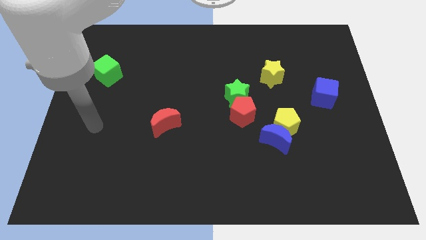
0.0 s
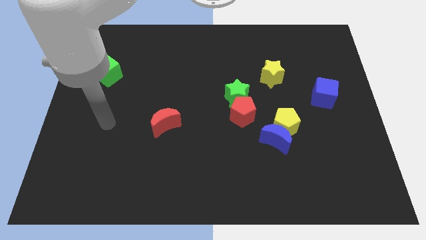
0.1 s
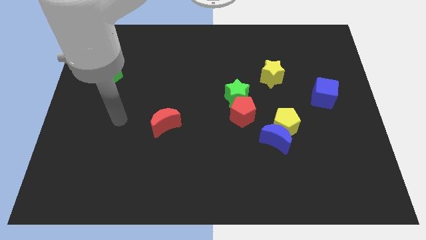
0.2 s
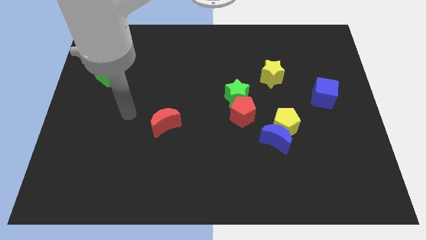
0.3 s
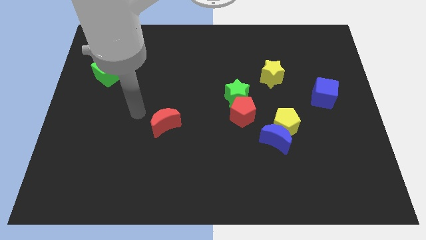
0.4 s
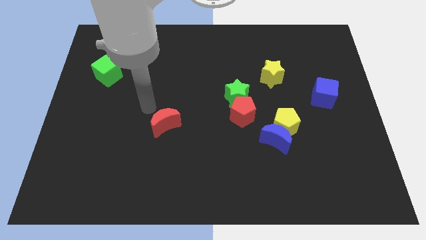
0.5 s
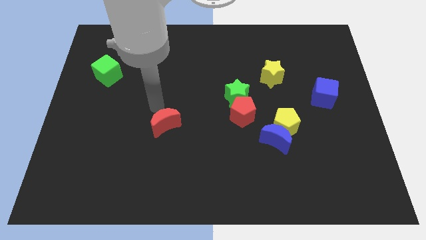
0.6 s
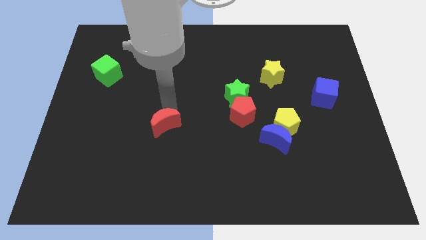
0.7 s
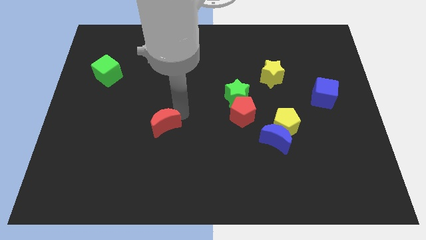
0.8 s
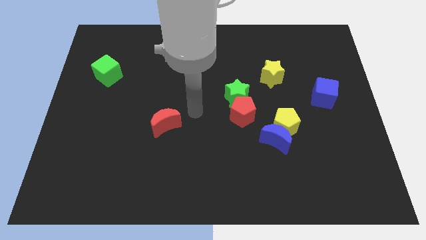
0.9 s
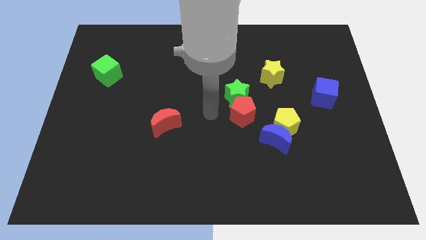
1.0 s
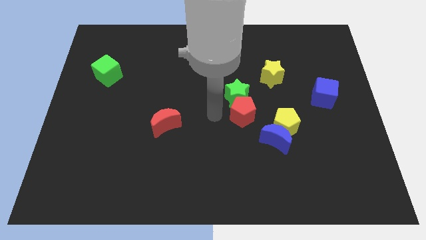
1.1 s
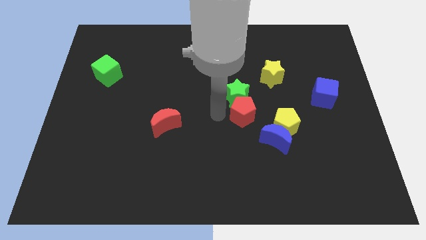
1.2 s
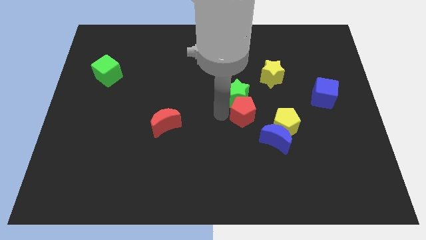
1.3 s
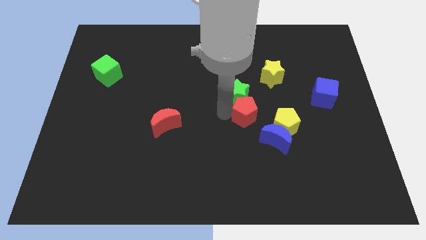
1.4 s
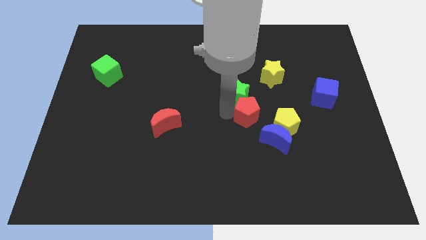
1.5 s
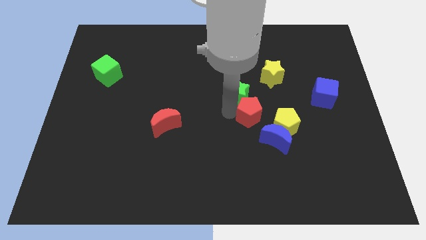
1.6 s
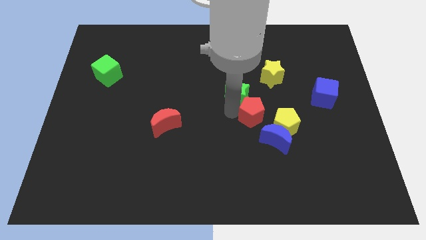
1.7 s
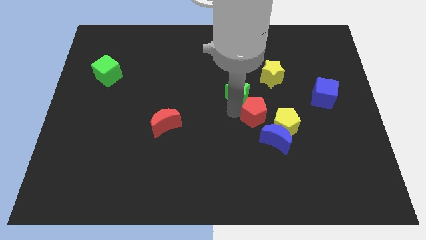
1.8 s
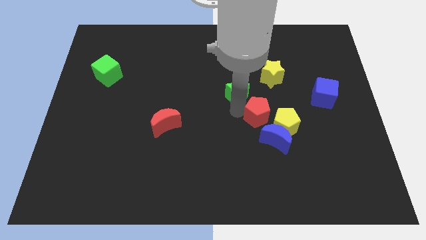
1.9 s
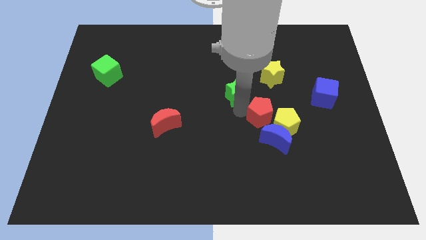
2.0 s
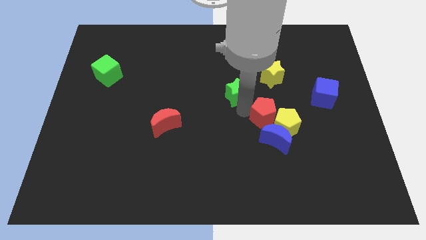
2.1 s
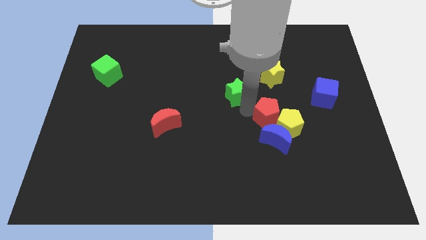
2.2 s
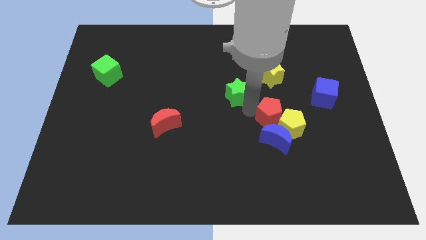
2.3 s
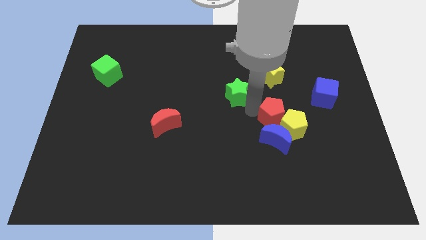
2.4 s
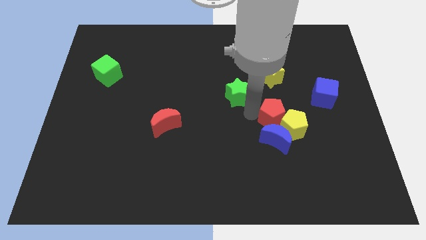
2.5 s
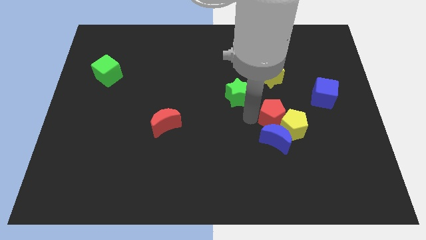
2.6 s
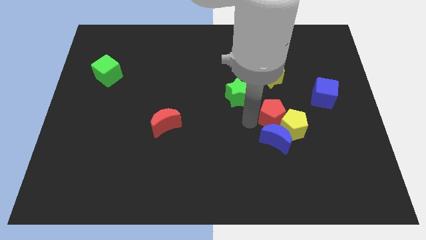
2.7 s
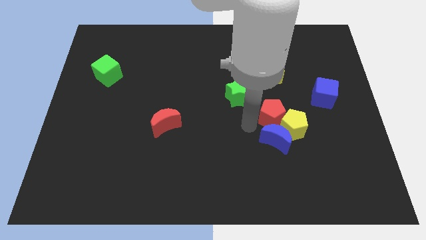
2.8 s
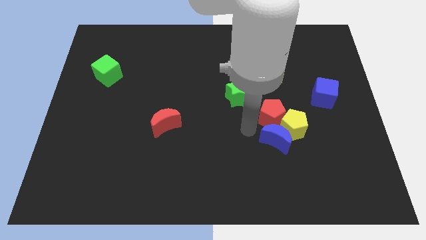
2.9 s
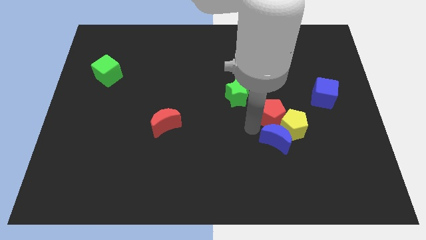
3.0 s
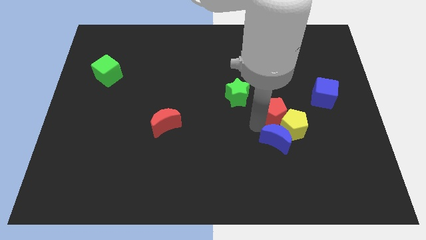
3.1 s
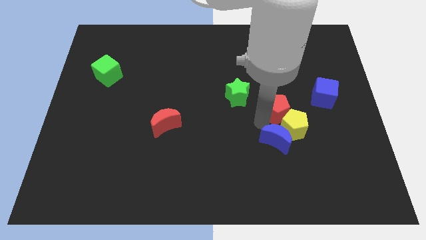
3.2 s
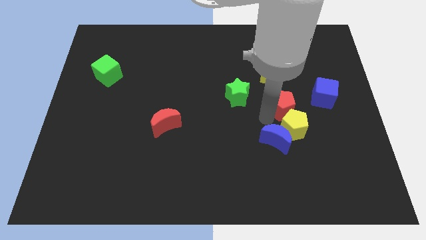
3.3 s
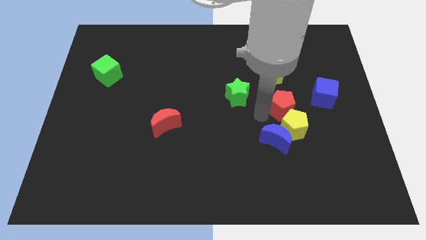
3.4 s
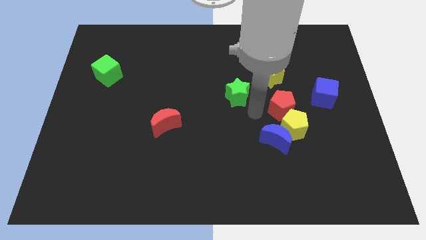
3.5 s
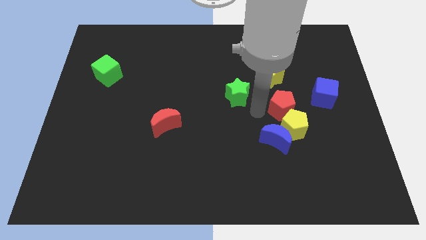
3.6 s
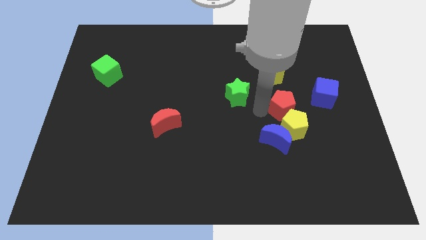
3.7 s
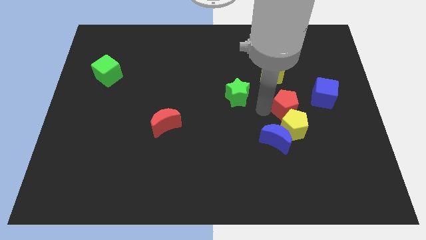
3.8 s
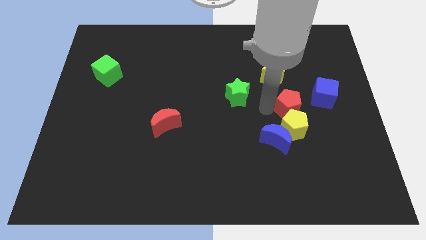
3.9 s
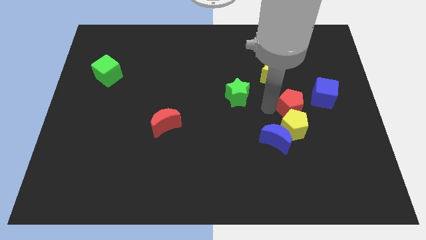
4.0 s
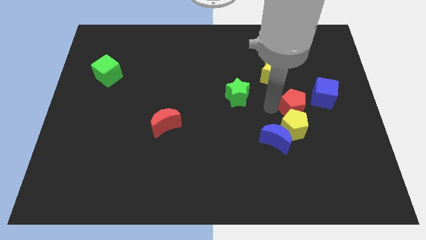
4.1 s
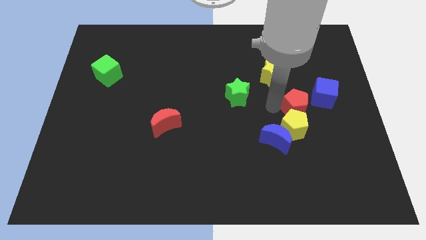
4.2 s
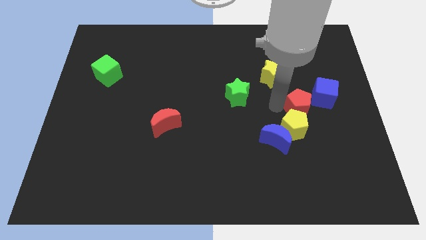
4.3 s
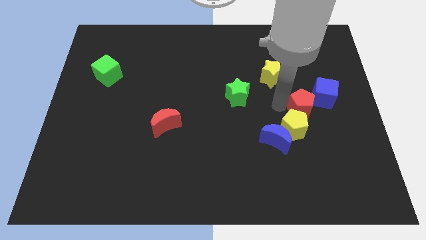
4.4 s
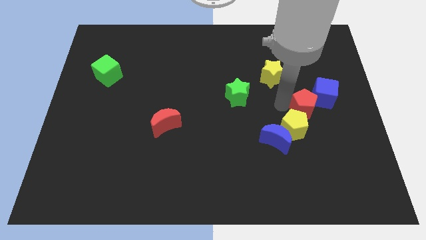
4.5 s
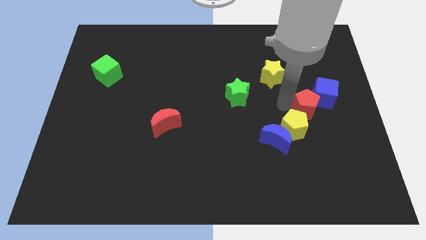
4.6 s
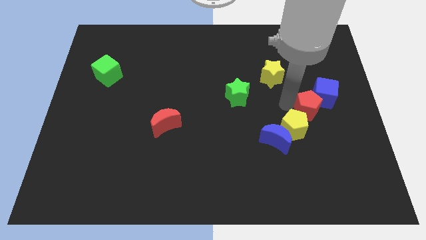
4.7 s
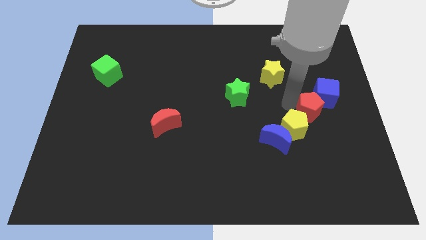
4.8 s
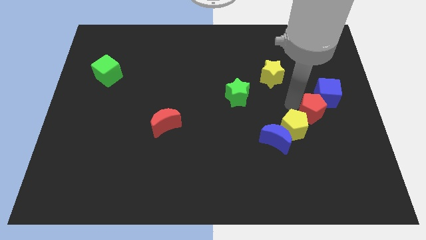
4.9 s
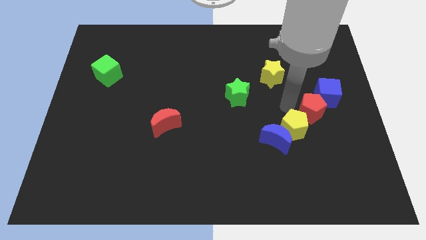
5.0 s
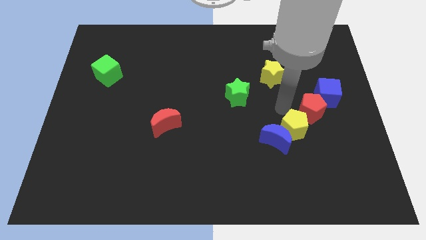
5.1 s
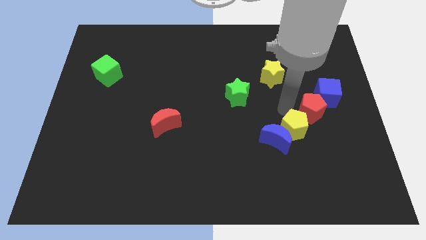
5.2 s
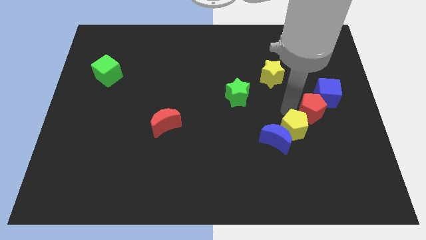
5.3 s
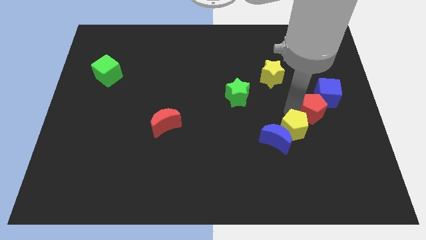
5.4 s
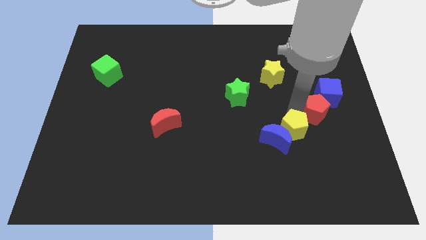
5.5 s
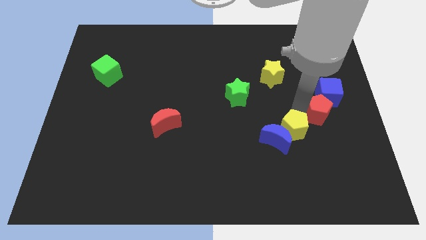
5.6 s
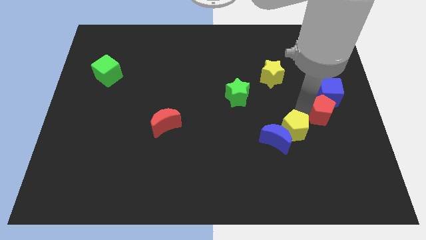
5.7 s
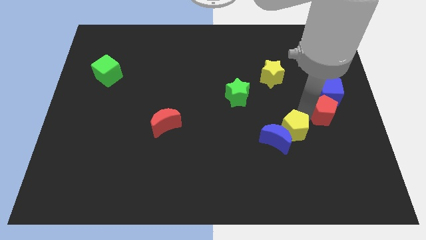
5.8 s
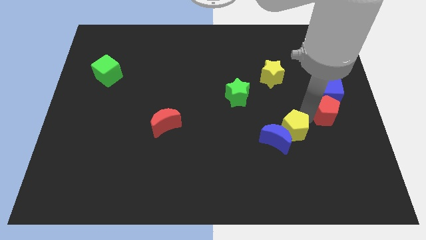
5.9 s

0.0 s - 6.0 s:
move the red pentagon to the right side

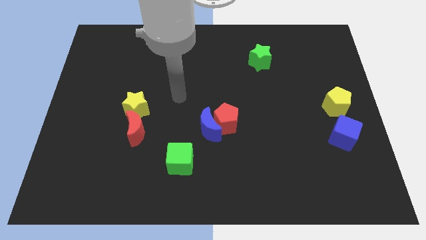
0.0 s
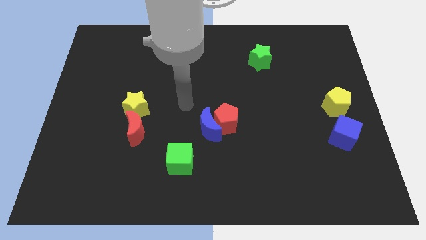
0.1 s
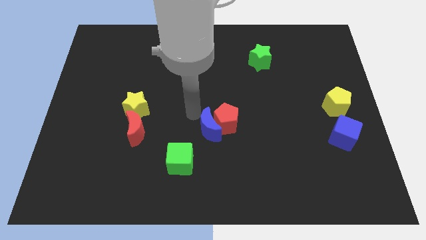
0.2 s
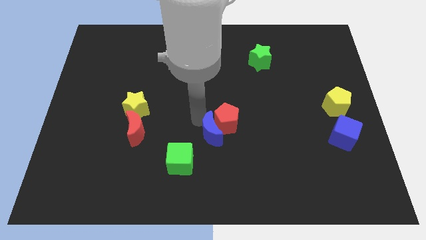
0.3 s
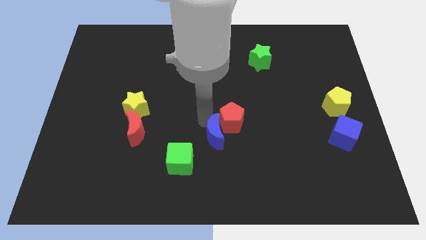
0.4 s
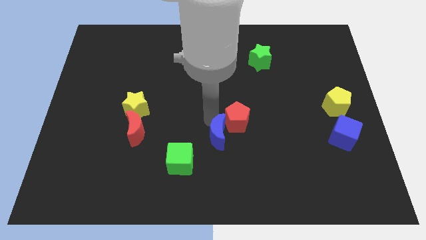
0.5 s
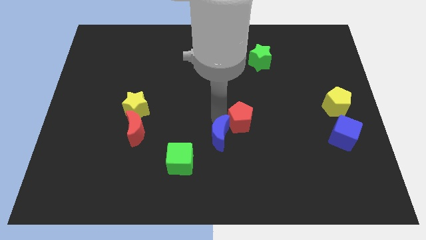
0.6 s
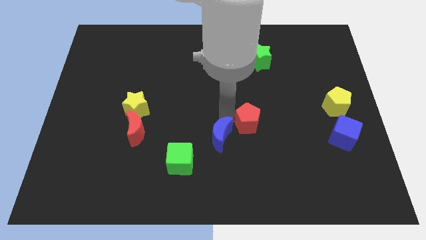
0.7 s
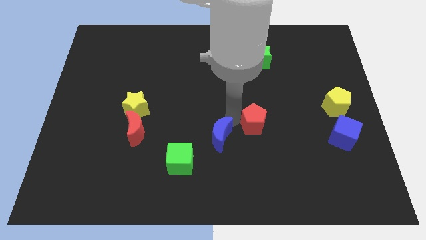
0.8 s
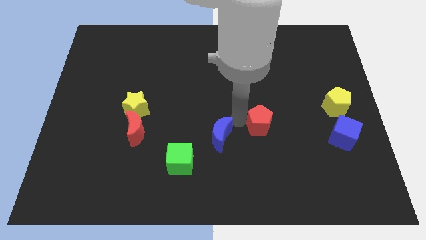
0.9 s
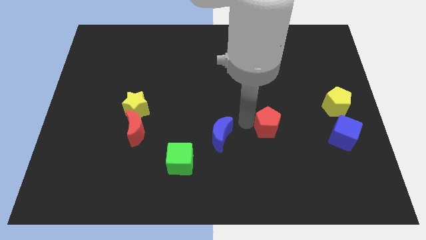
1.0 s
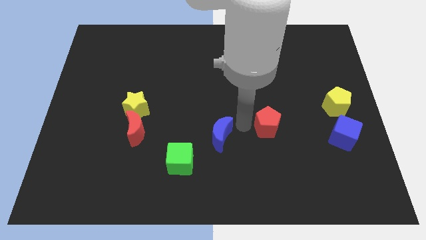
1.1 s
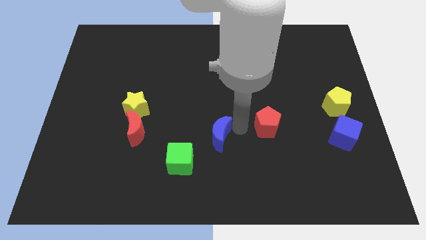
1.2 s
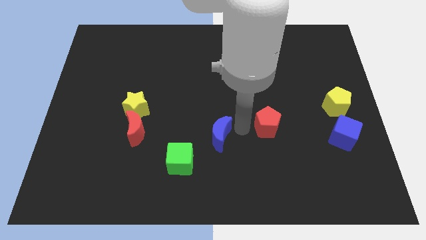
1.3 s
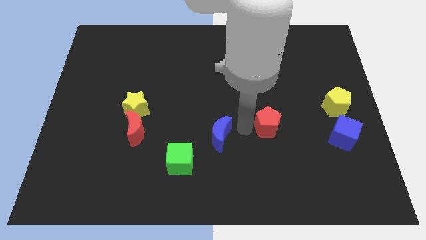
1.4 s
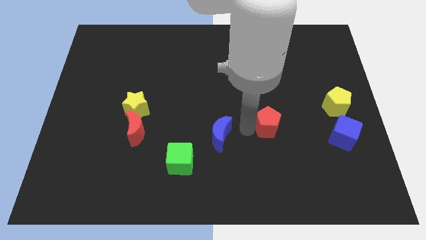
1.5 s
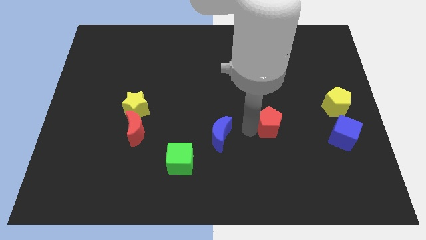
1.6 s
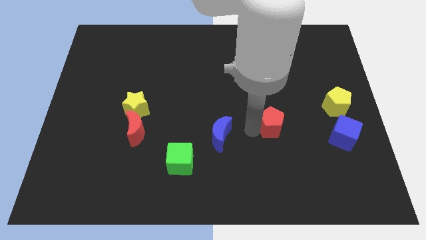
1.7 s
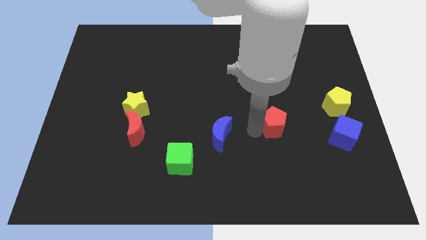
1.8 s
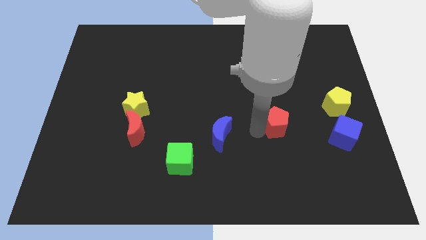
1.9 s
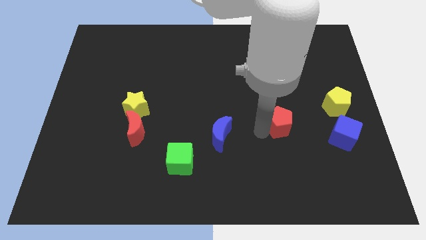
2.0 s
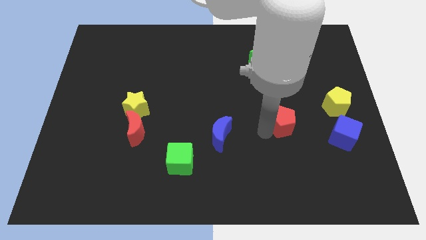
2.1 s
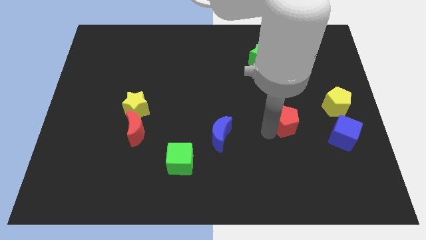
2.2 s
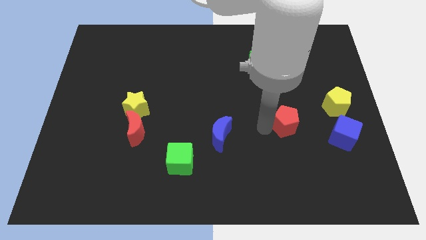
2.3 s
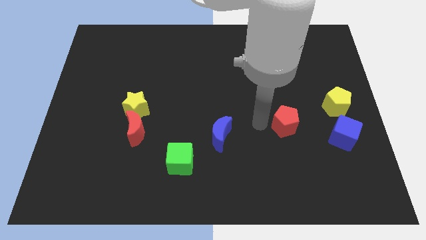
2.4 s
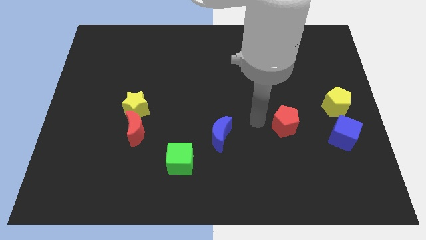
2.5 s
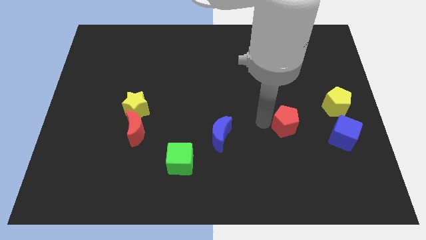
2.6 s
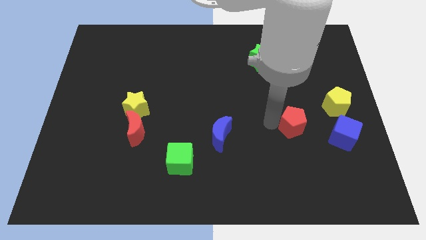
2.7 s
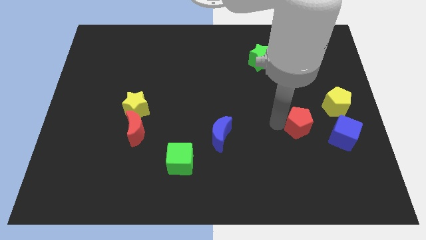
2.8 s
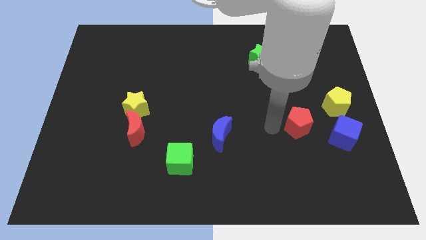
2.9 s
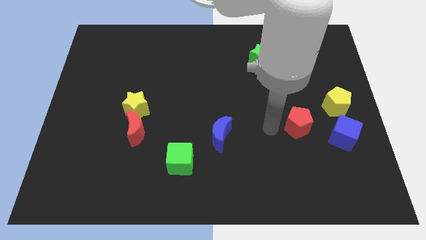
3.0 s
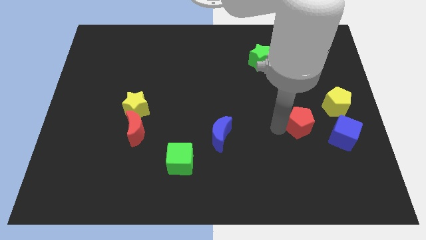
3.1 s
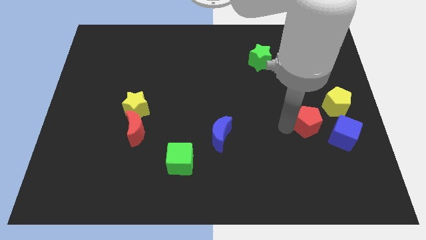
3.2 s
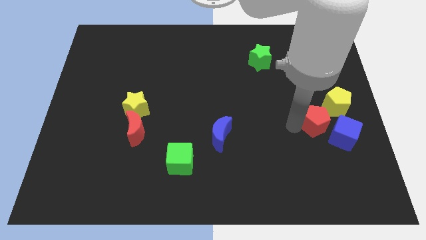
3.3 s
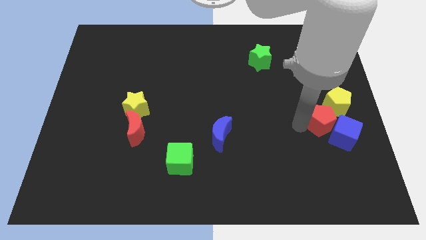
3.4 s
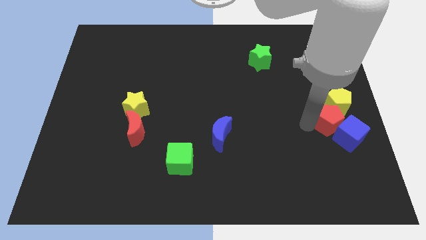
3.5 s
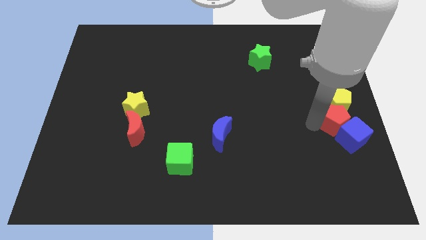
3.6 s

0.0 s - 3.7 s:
push the red pentagon to the right side
